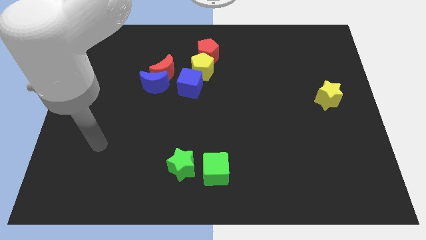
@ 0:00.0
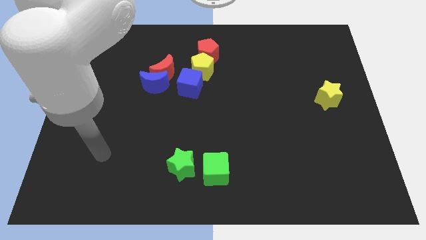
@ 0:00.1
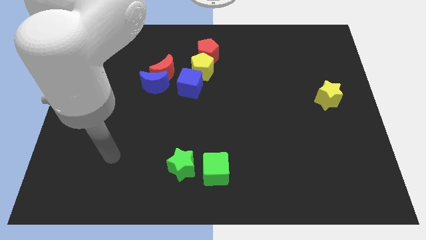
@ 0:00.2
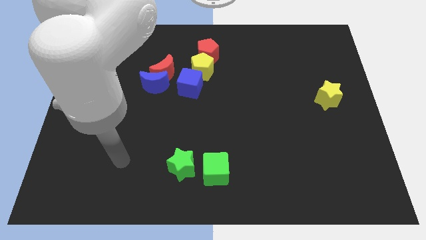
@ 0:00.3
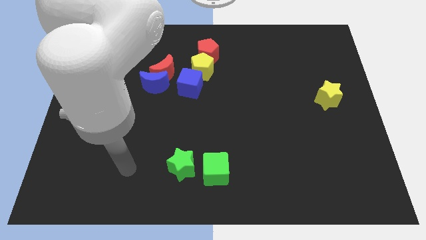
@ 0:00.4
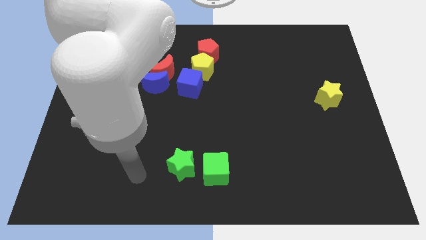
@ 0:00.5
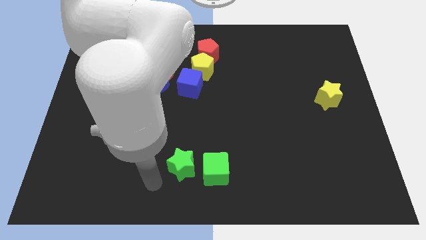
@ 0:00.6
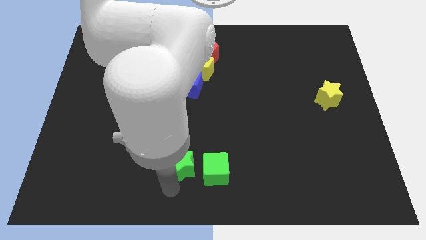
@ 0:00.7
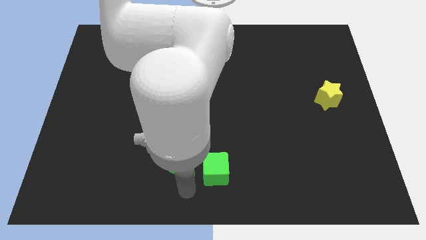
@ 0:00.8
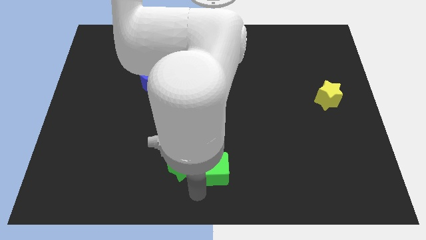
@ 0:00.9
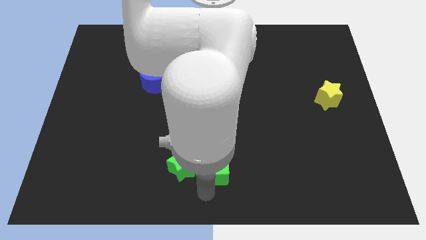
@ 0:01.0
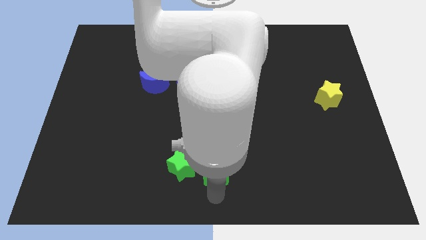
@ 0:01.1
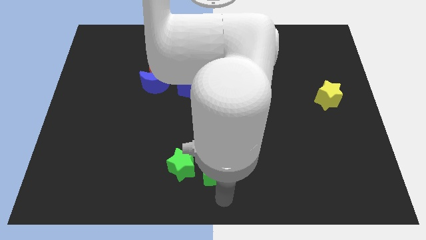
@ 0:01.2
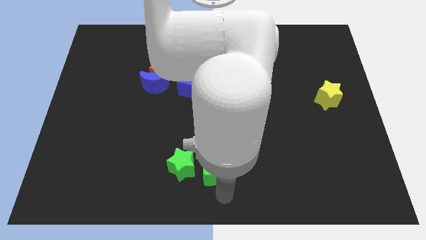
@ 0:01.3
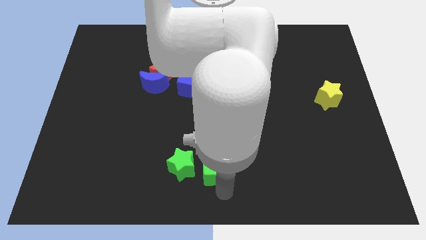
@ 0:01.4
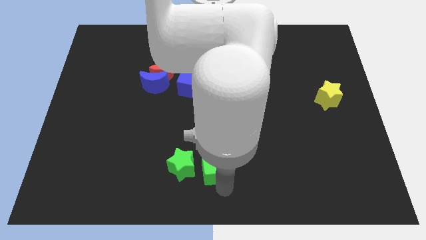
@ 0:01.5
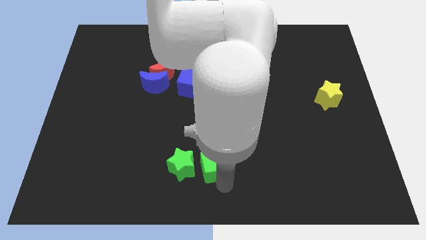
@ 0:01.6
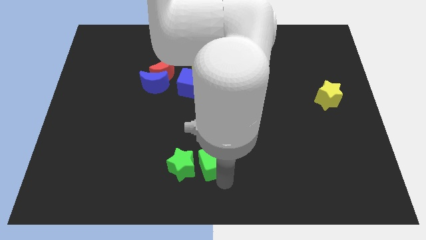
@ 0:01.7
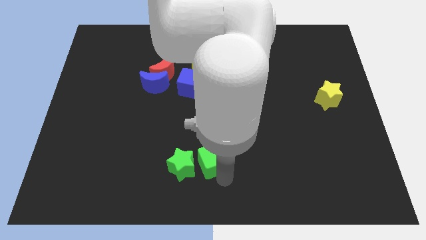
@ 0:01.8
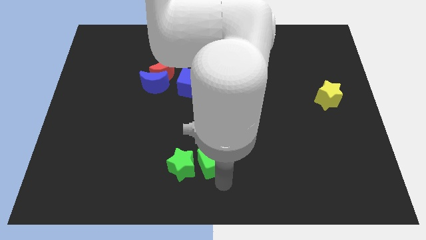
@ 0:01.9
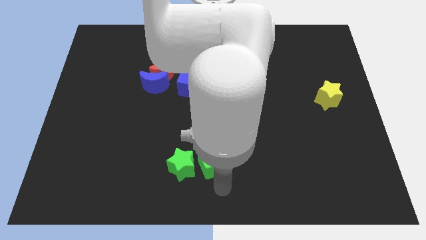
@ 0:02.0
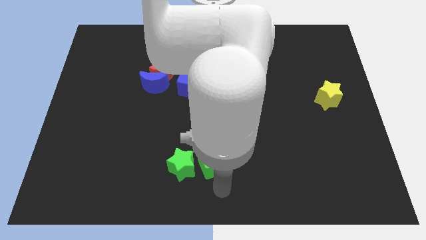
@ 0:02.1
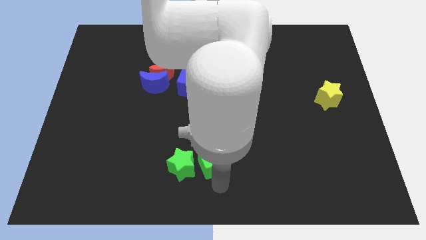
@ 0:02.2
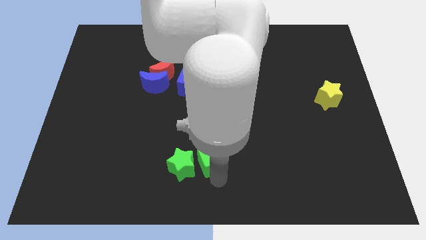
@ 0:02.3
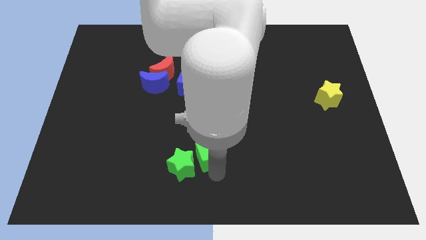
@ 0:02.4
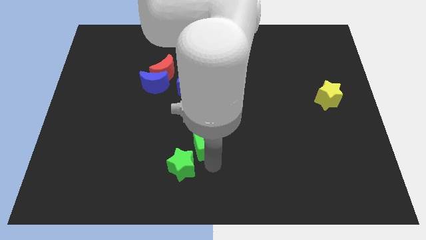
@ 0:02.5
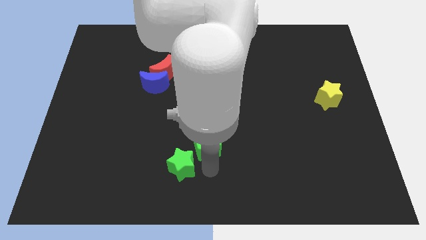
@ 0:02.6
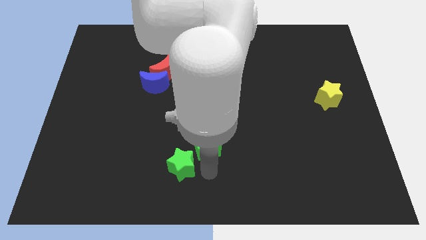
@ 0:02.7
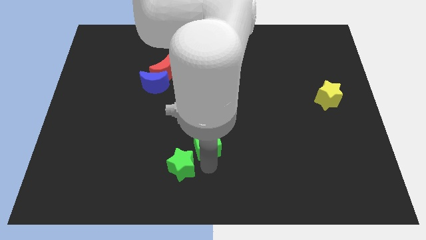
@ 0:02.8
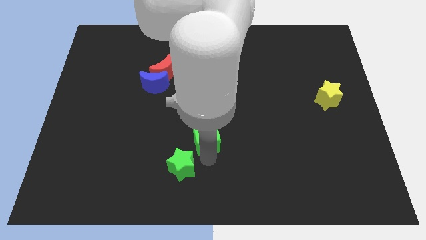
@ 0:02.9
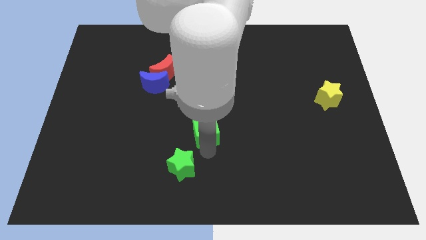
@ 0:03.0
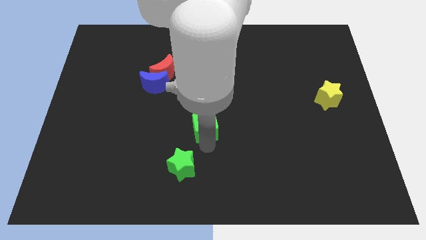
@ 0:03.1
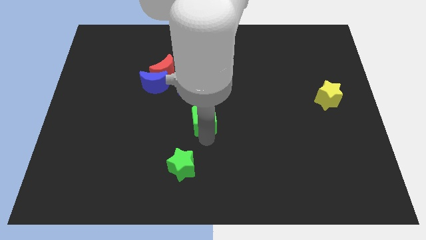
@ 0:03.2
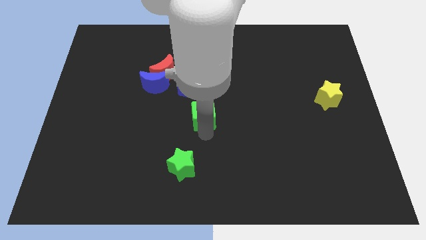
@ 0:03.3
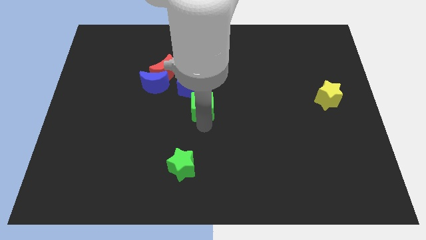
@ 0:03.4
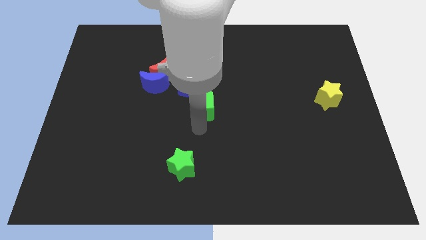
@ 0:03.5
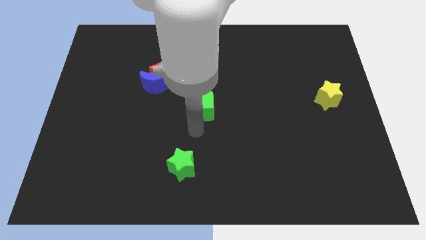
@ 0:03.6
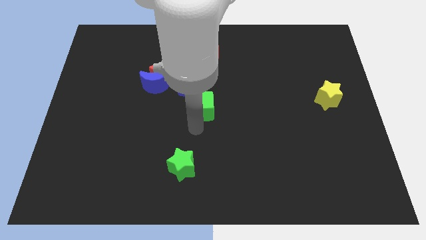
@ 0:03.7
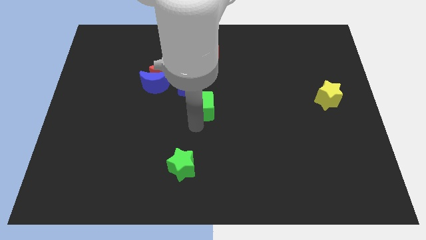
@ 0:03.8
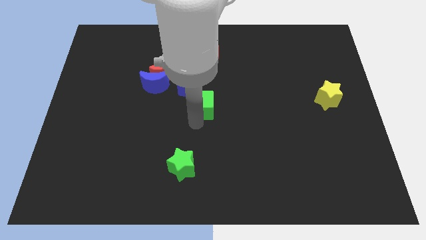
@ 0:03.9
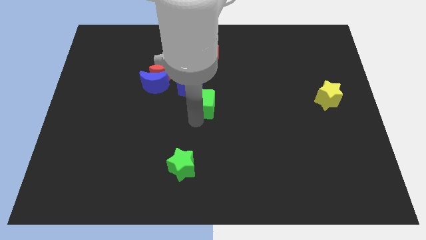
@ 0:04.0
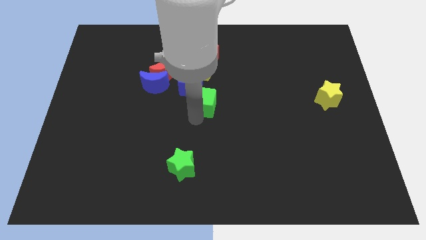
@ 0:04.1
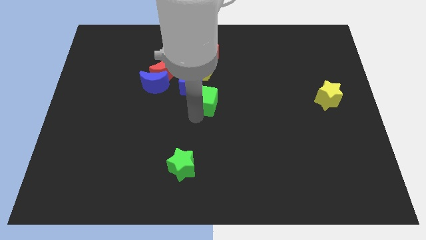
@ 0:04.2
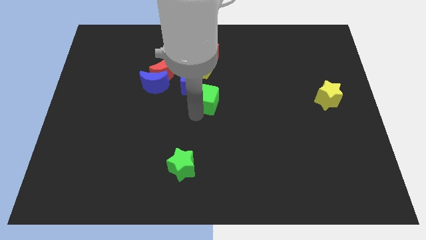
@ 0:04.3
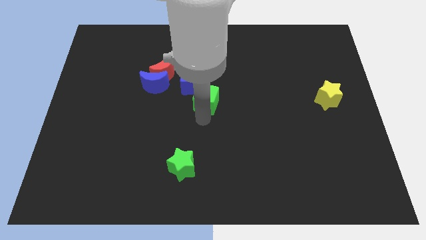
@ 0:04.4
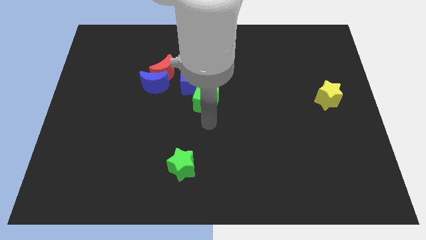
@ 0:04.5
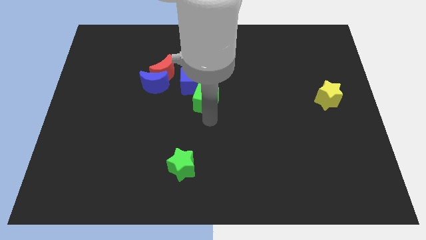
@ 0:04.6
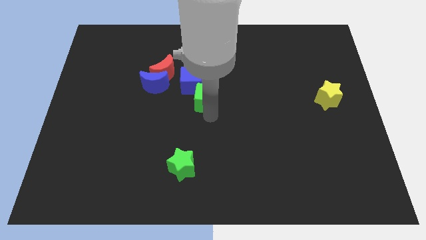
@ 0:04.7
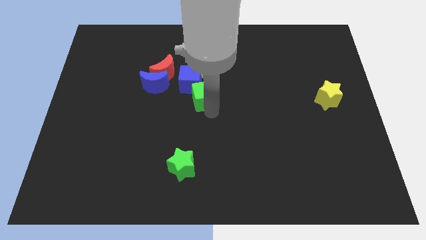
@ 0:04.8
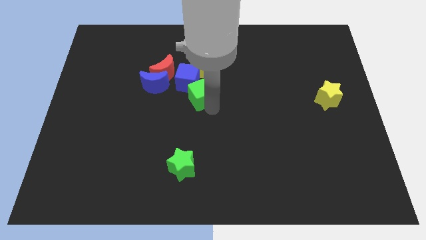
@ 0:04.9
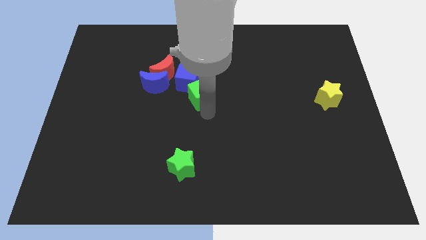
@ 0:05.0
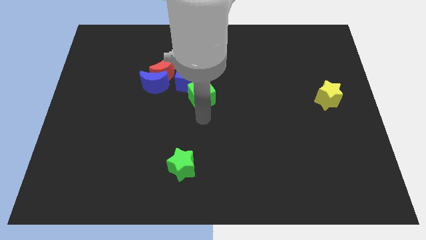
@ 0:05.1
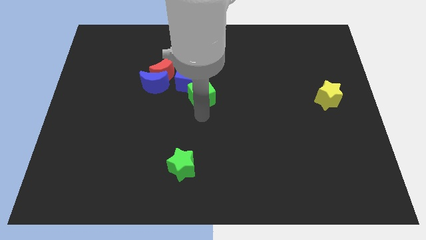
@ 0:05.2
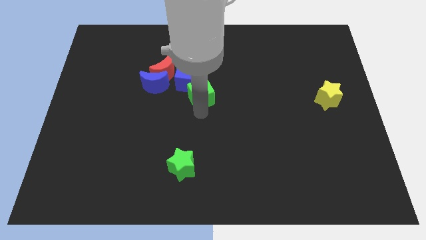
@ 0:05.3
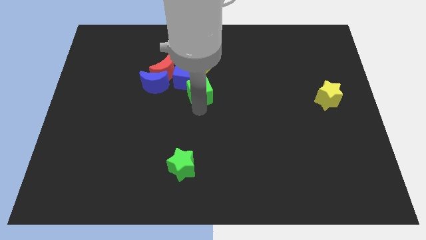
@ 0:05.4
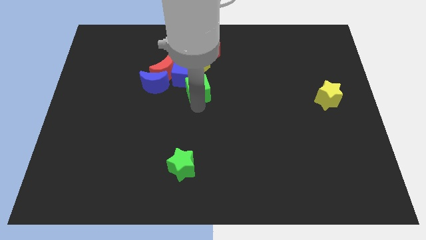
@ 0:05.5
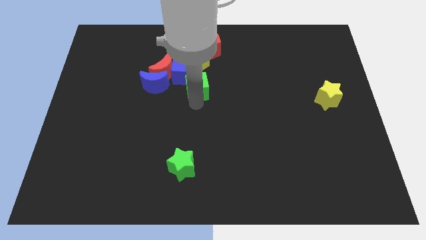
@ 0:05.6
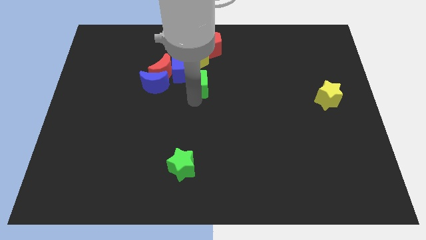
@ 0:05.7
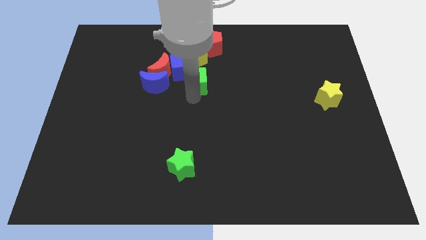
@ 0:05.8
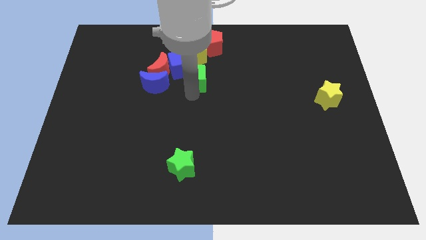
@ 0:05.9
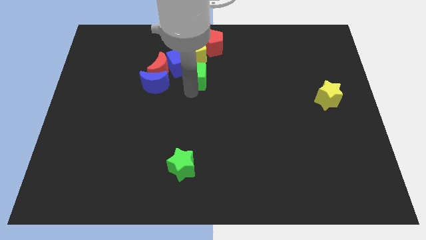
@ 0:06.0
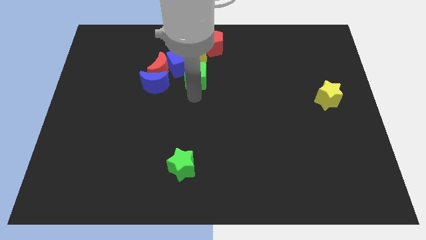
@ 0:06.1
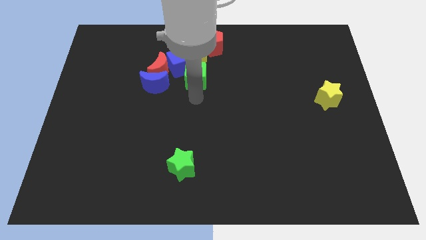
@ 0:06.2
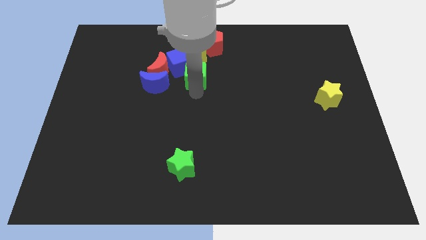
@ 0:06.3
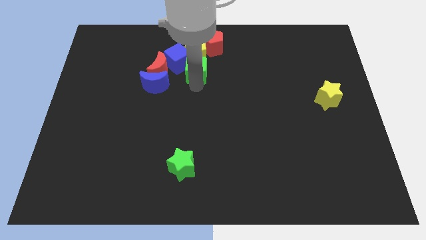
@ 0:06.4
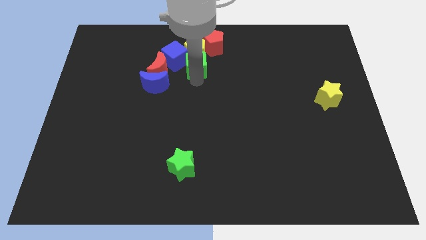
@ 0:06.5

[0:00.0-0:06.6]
move the green cube to the yellow pentagon

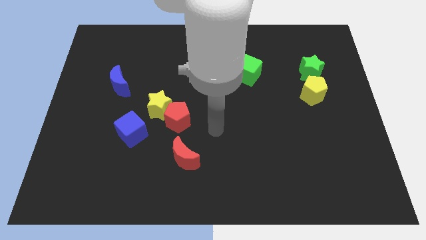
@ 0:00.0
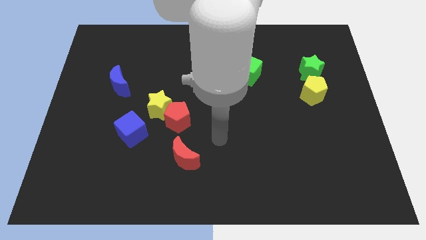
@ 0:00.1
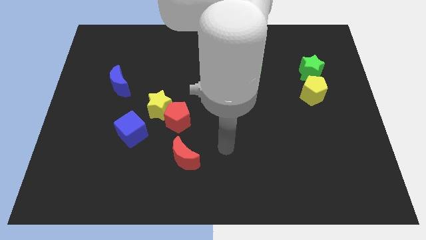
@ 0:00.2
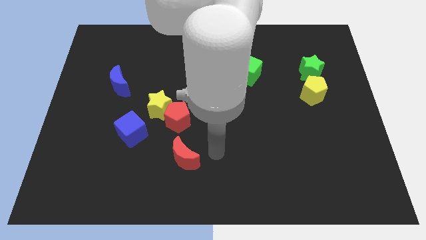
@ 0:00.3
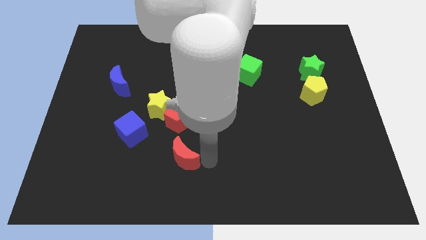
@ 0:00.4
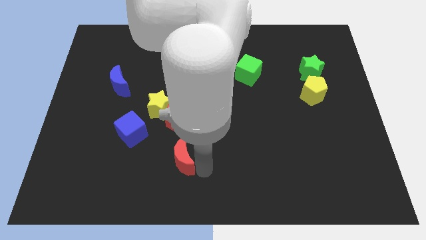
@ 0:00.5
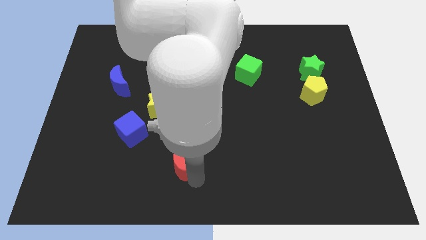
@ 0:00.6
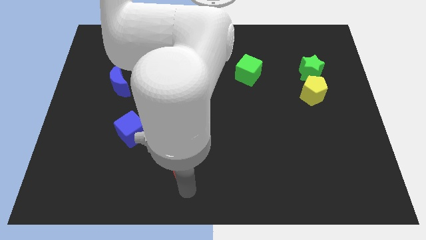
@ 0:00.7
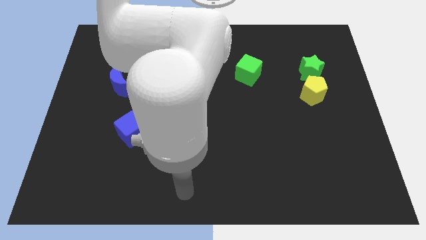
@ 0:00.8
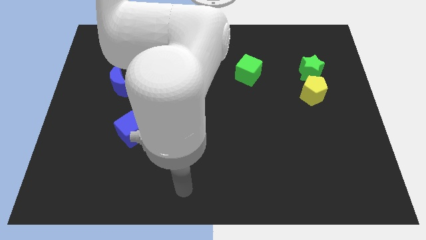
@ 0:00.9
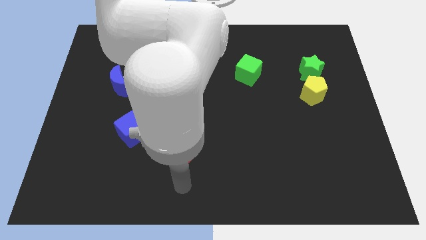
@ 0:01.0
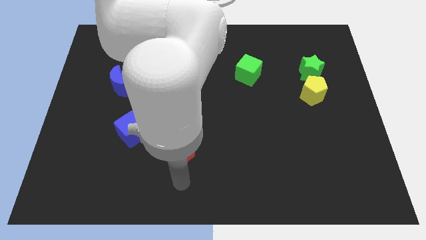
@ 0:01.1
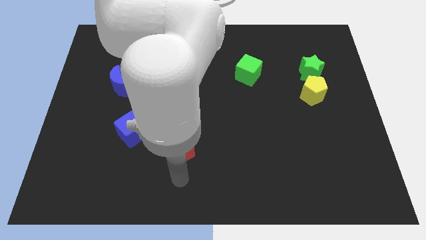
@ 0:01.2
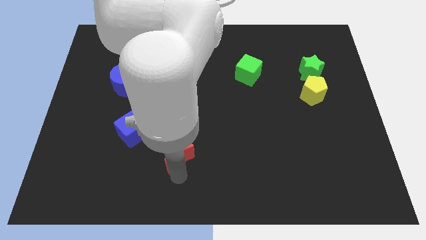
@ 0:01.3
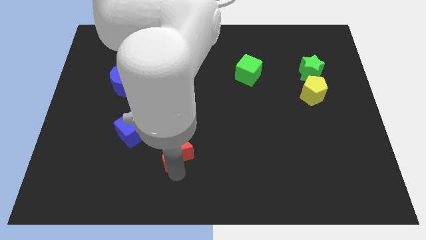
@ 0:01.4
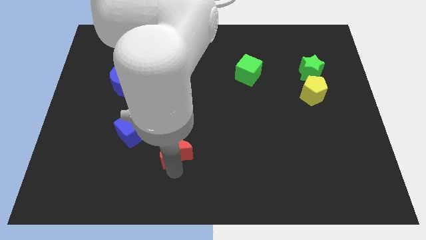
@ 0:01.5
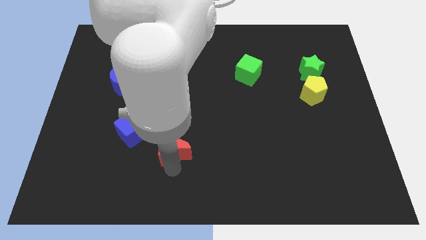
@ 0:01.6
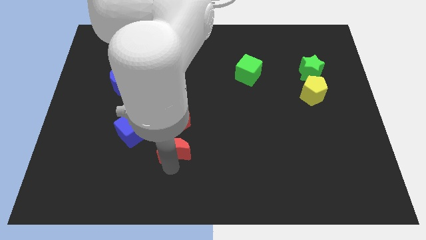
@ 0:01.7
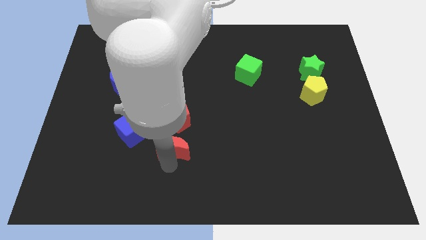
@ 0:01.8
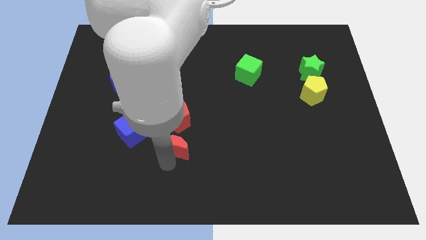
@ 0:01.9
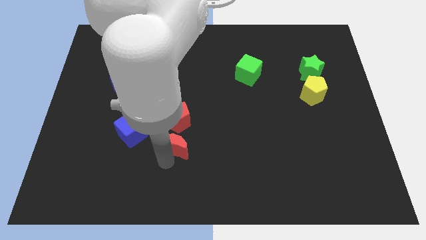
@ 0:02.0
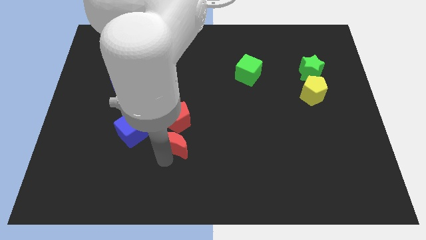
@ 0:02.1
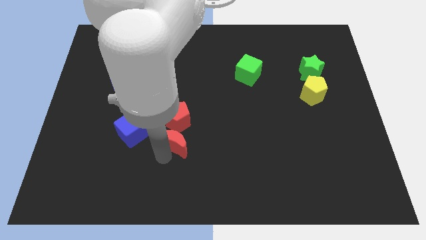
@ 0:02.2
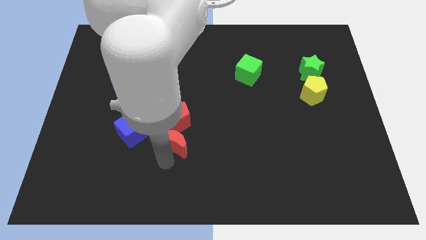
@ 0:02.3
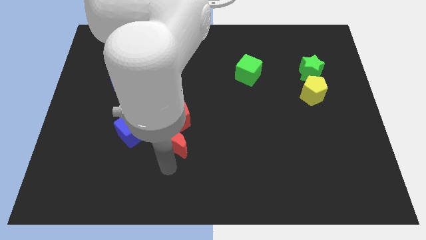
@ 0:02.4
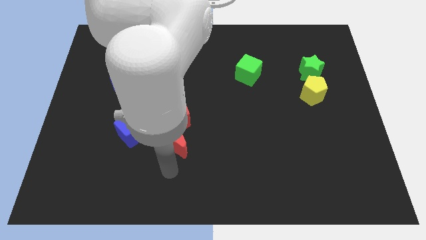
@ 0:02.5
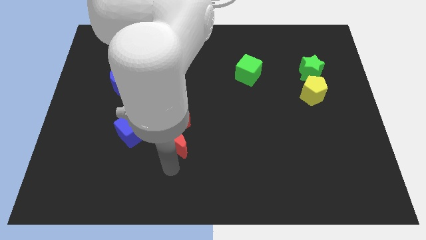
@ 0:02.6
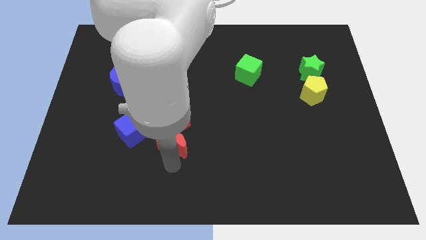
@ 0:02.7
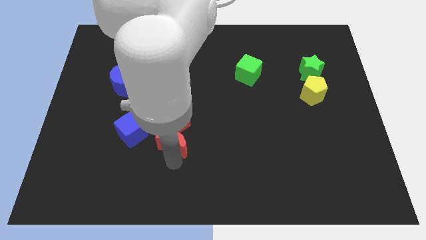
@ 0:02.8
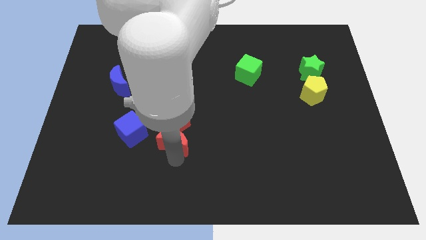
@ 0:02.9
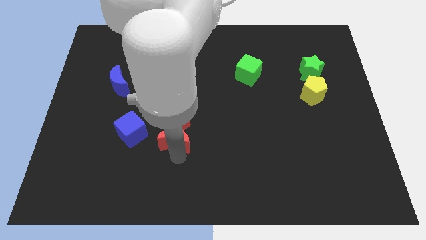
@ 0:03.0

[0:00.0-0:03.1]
slide the red moon towards the red pentagon
